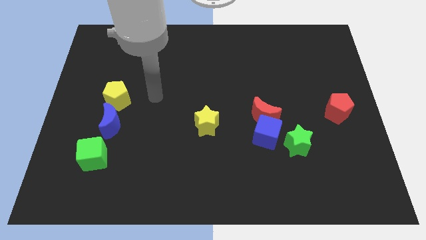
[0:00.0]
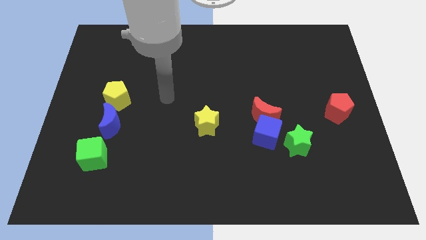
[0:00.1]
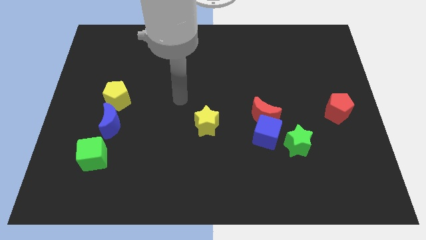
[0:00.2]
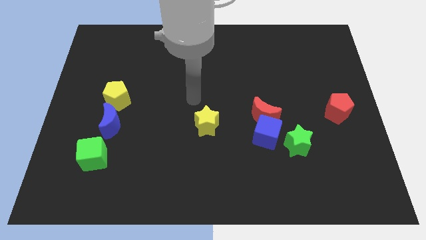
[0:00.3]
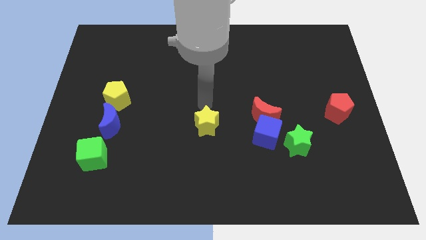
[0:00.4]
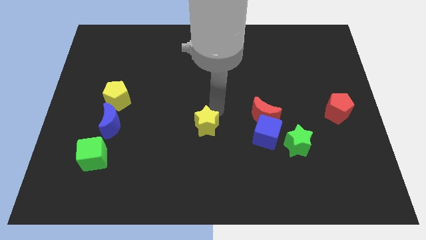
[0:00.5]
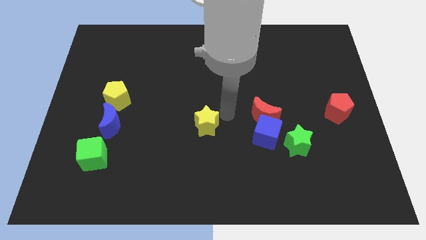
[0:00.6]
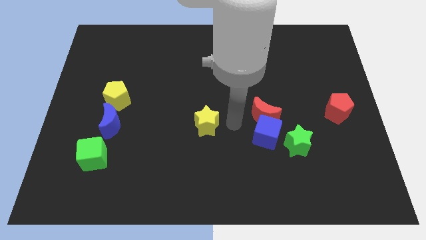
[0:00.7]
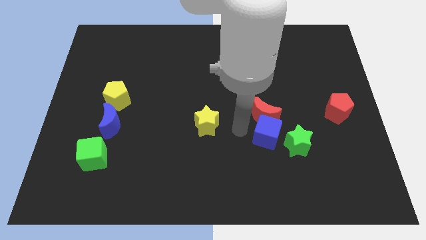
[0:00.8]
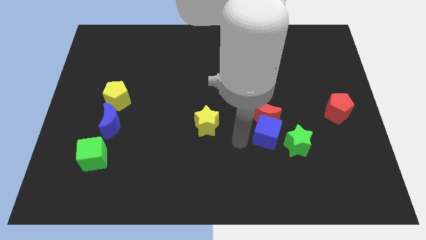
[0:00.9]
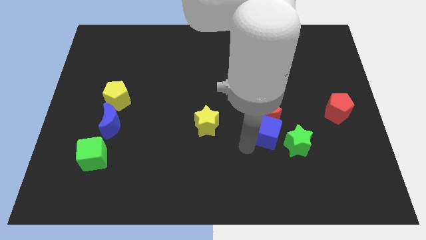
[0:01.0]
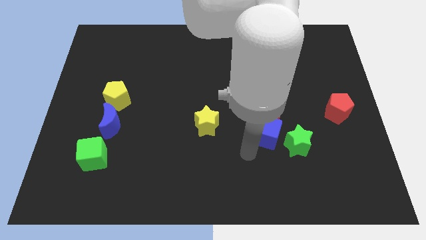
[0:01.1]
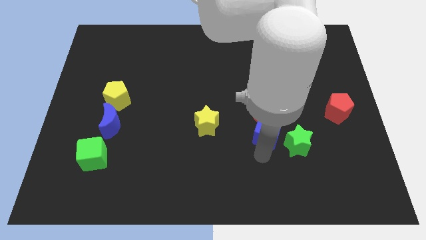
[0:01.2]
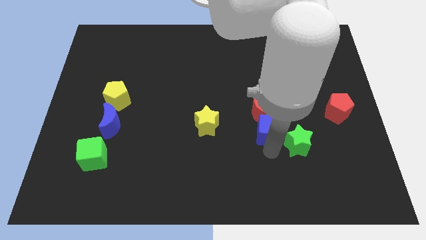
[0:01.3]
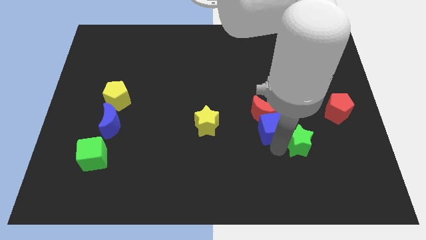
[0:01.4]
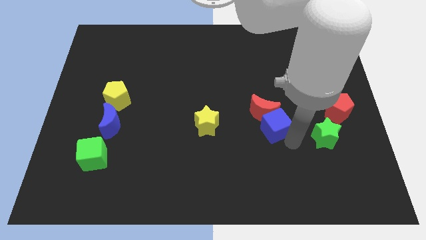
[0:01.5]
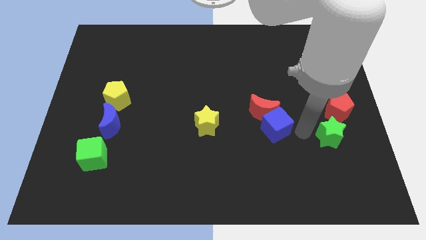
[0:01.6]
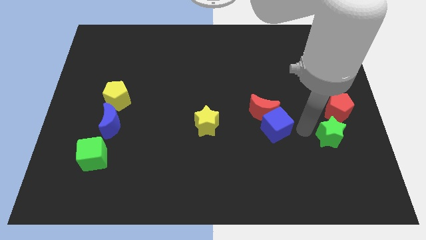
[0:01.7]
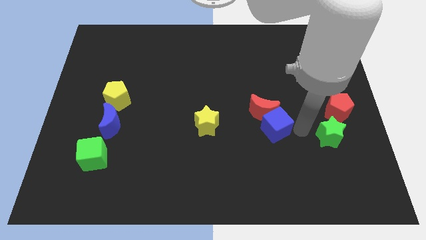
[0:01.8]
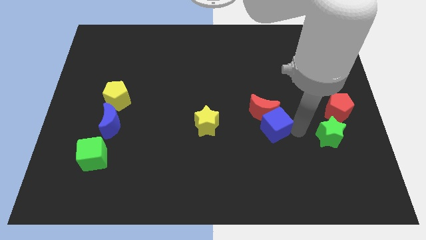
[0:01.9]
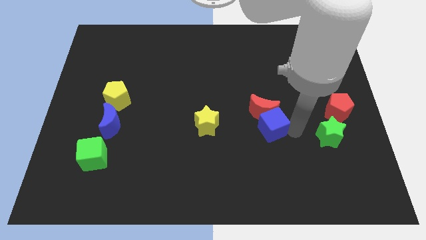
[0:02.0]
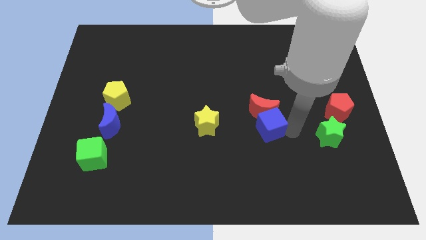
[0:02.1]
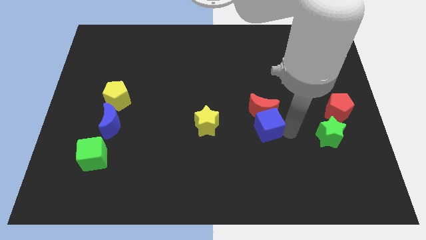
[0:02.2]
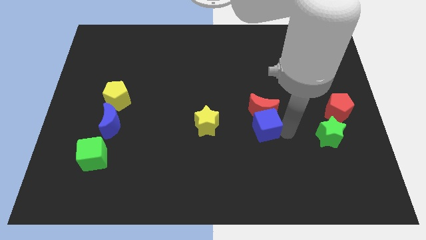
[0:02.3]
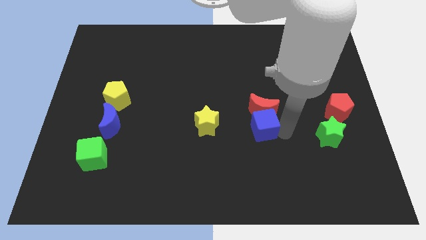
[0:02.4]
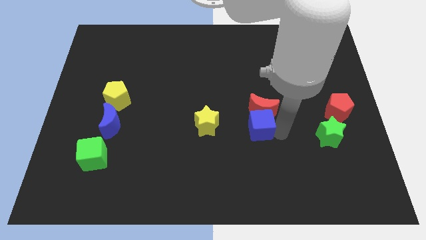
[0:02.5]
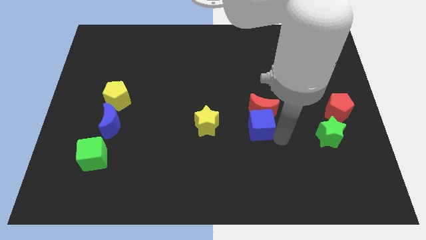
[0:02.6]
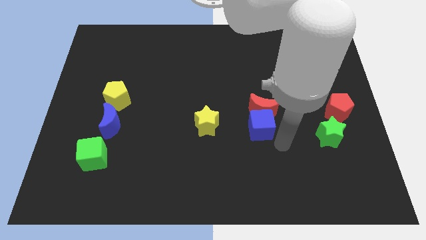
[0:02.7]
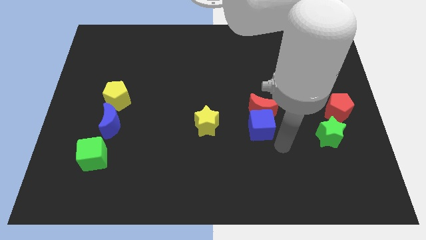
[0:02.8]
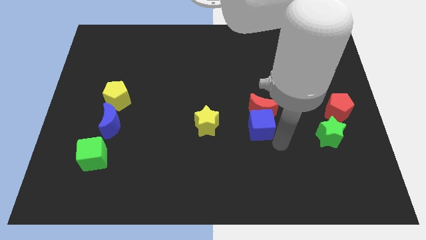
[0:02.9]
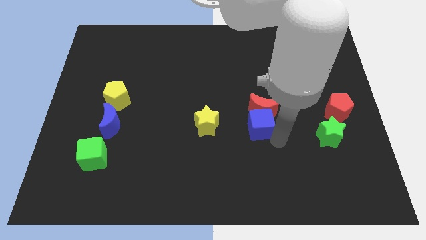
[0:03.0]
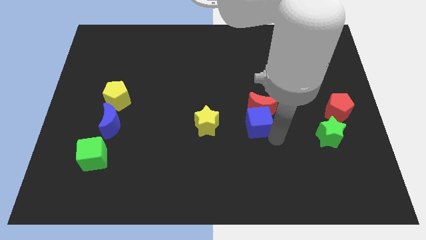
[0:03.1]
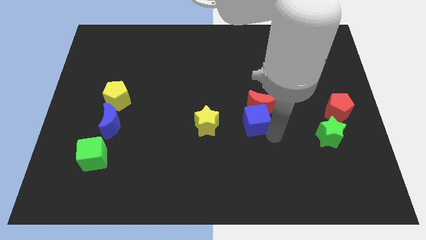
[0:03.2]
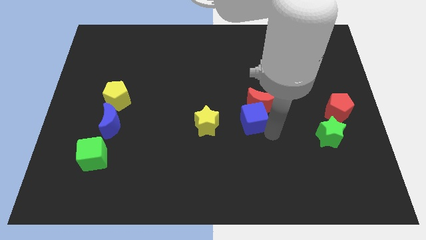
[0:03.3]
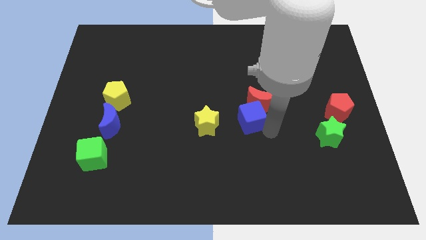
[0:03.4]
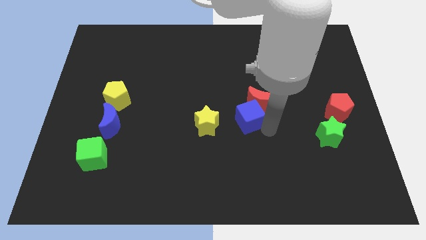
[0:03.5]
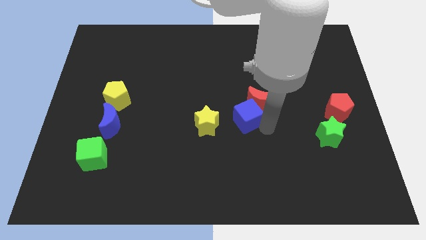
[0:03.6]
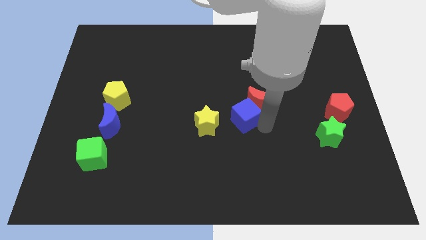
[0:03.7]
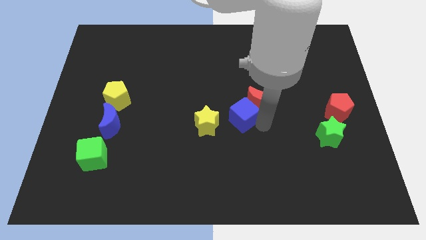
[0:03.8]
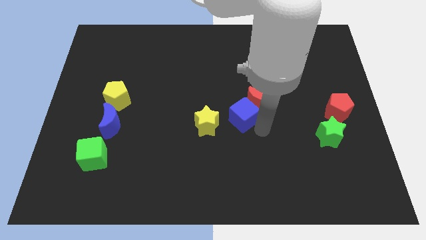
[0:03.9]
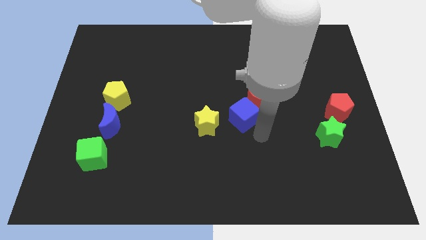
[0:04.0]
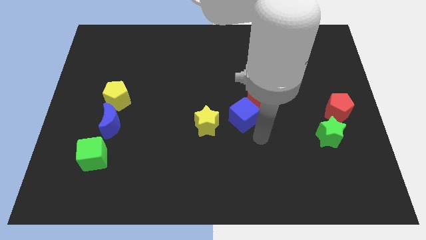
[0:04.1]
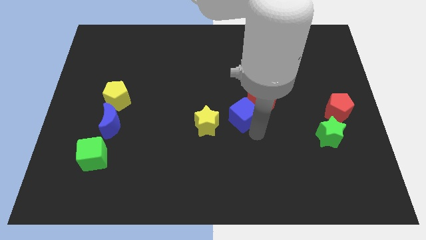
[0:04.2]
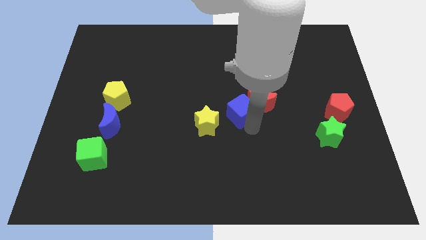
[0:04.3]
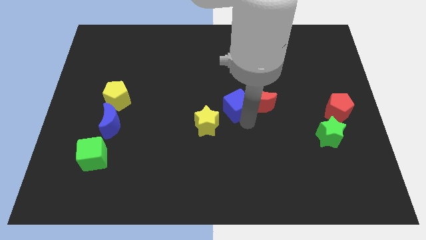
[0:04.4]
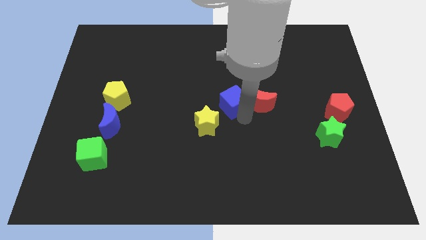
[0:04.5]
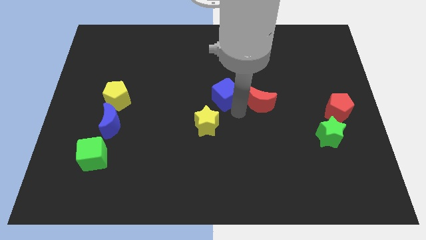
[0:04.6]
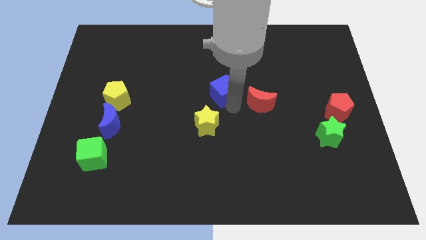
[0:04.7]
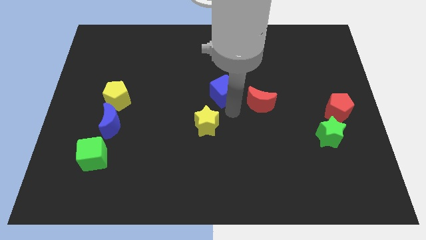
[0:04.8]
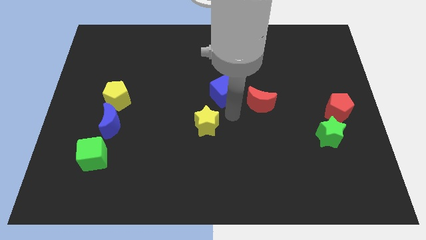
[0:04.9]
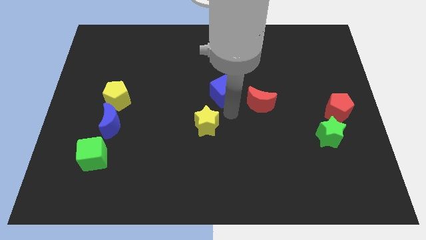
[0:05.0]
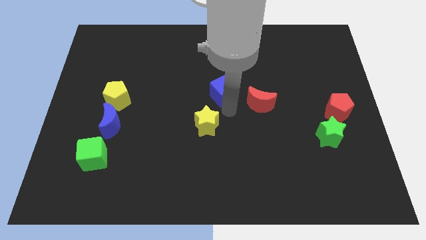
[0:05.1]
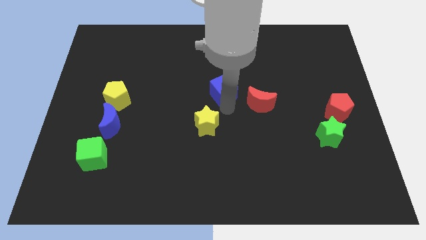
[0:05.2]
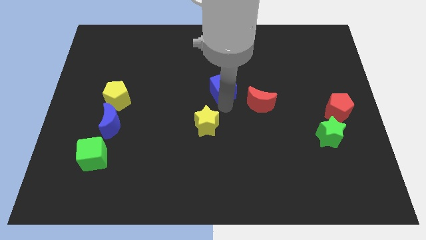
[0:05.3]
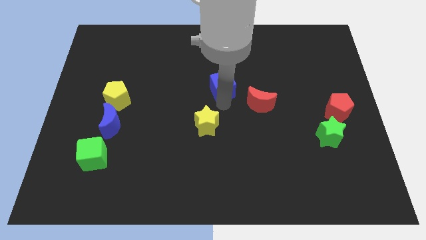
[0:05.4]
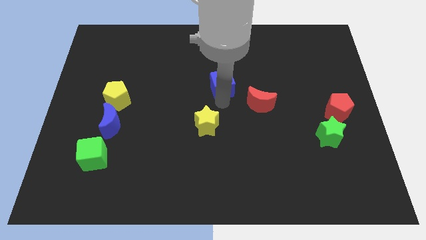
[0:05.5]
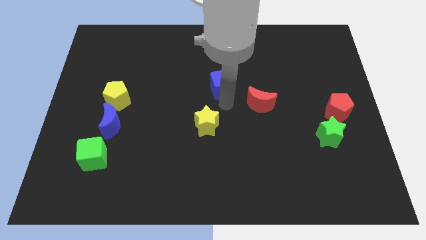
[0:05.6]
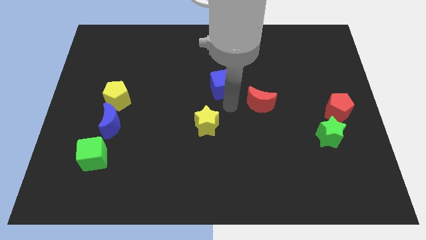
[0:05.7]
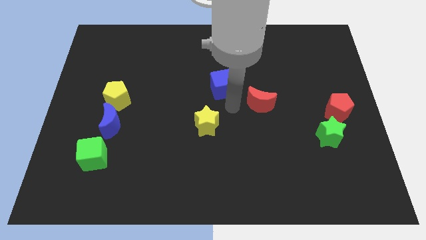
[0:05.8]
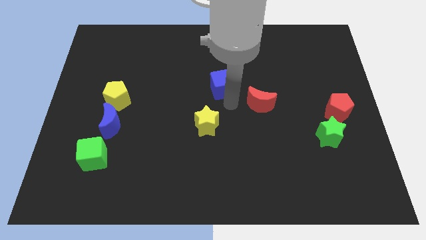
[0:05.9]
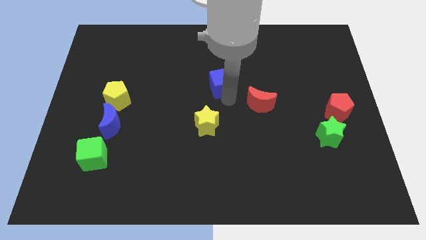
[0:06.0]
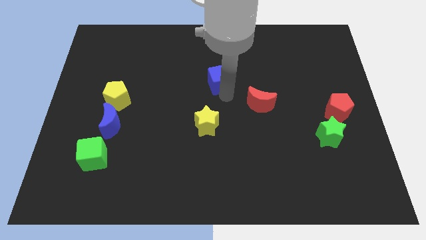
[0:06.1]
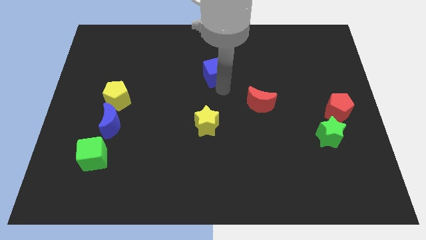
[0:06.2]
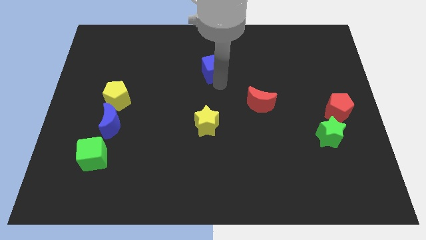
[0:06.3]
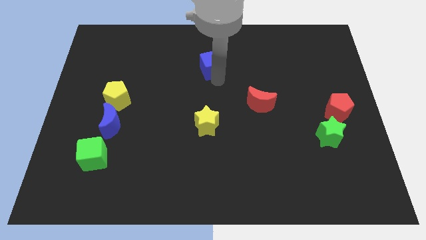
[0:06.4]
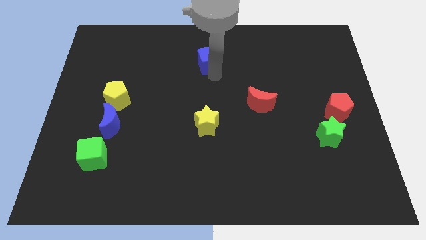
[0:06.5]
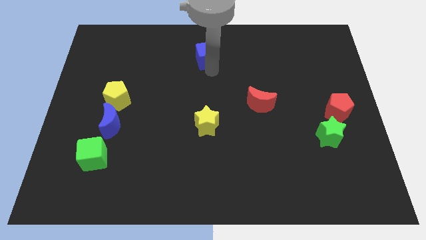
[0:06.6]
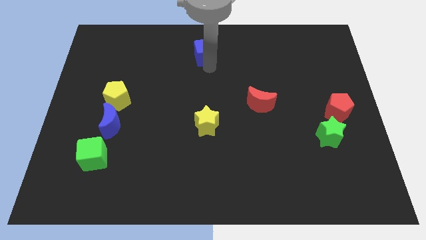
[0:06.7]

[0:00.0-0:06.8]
push the blue cube to the towards your base
